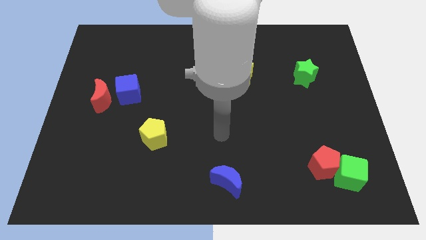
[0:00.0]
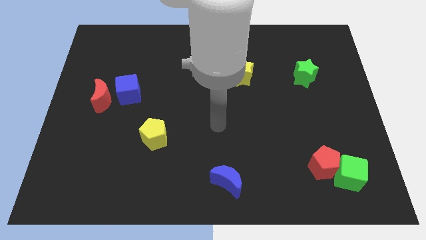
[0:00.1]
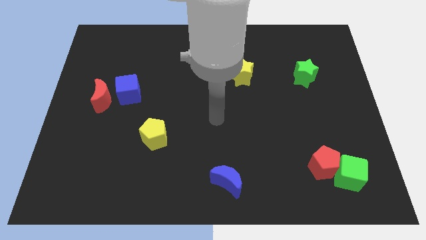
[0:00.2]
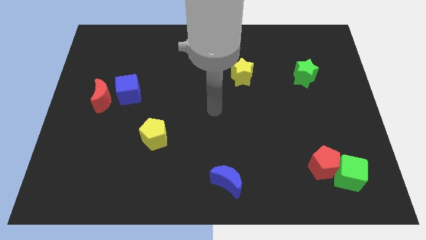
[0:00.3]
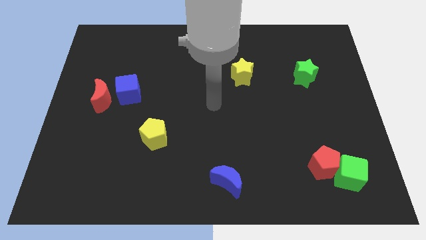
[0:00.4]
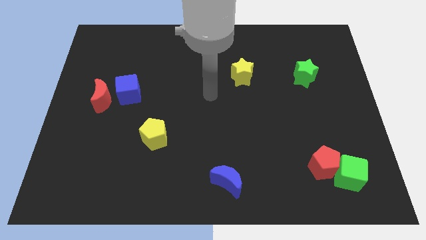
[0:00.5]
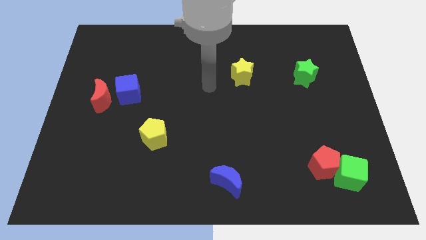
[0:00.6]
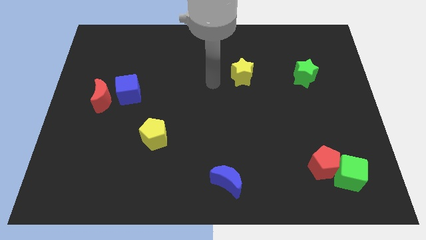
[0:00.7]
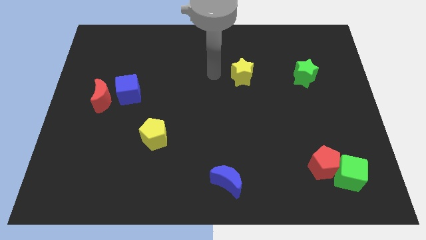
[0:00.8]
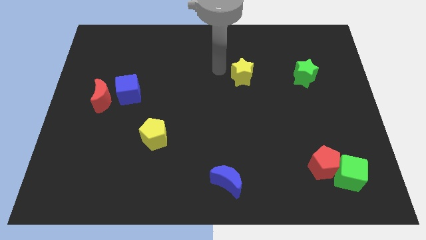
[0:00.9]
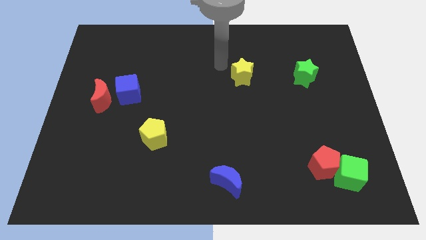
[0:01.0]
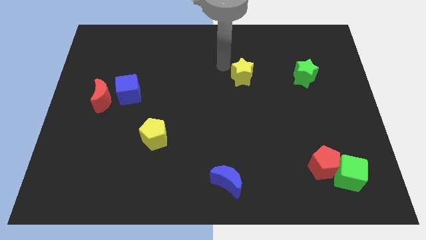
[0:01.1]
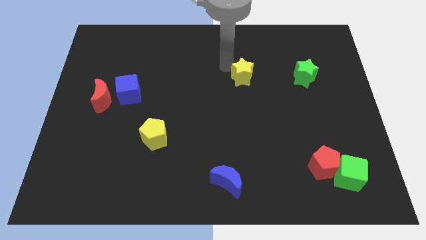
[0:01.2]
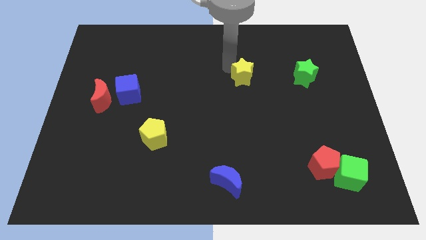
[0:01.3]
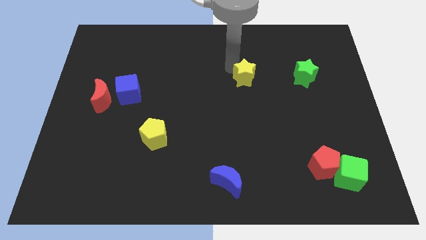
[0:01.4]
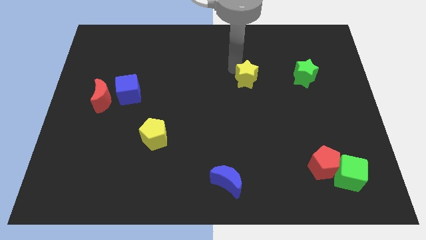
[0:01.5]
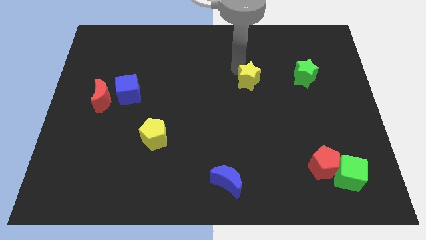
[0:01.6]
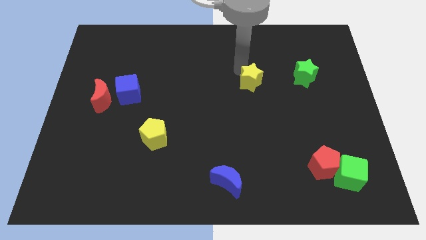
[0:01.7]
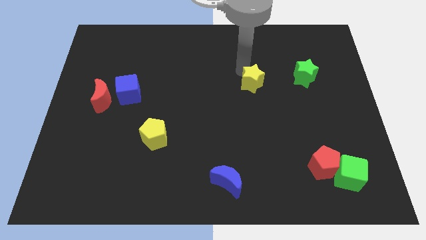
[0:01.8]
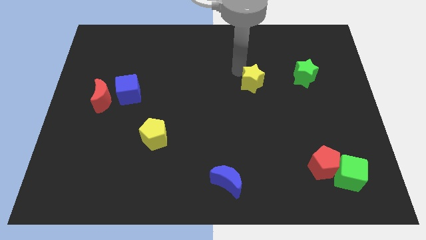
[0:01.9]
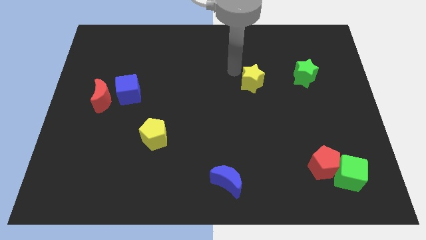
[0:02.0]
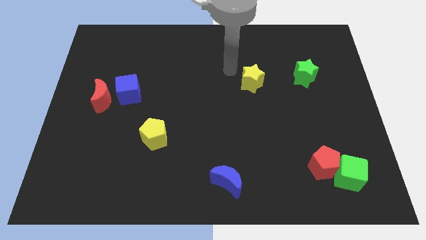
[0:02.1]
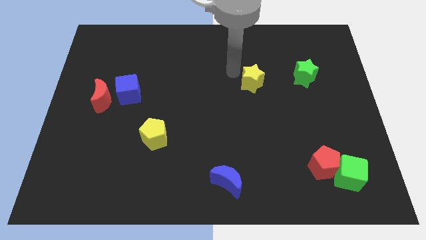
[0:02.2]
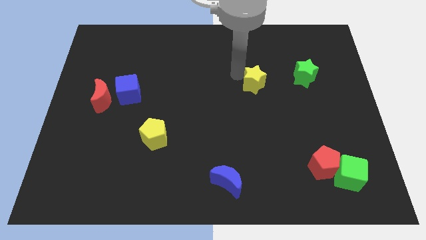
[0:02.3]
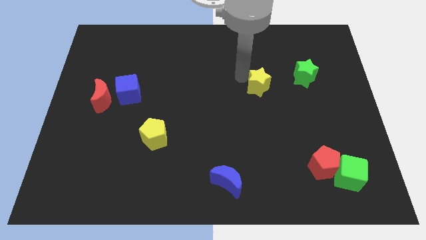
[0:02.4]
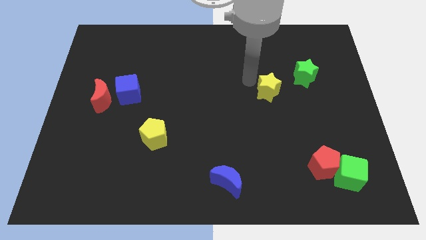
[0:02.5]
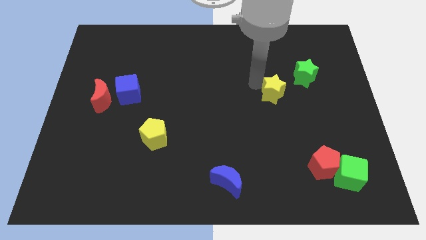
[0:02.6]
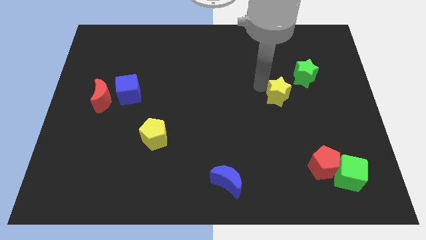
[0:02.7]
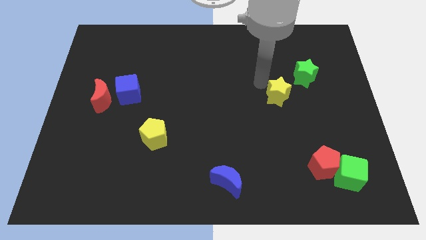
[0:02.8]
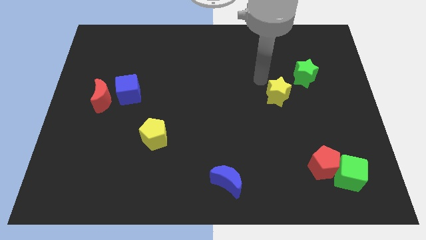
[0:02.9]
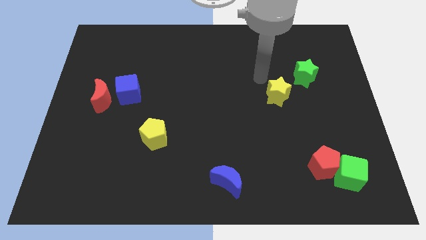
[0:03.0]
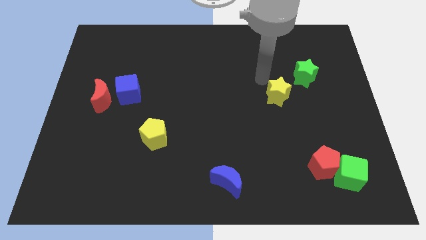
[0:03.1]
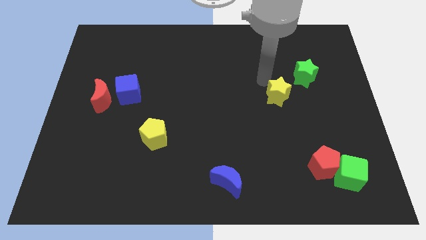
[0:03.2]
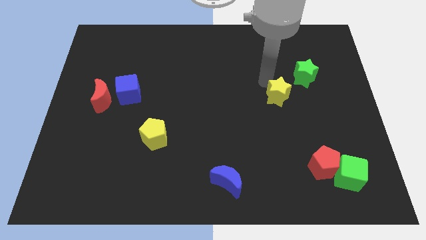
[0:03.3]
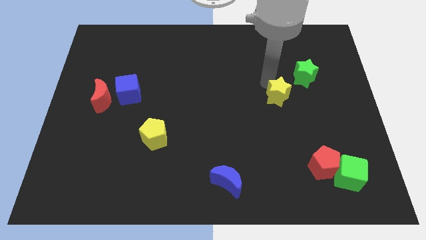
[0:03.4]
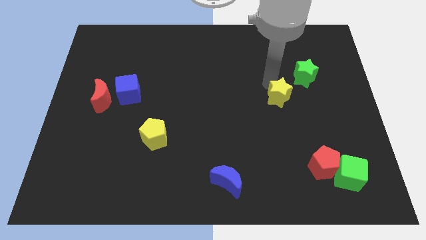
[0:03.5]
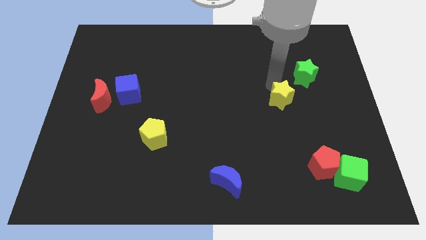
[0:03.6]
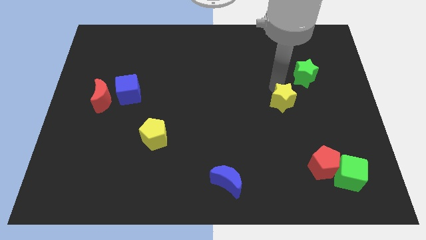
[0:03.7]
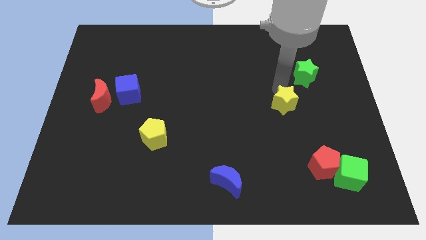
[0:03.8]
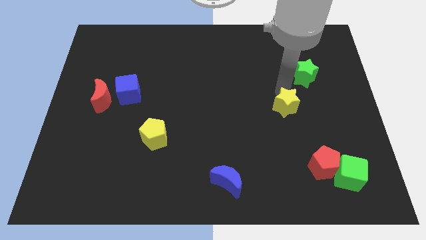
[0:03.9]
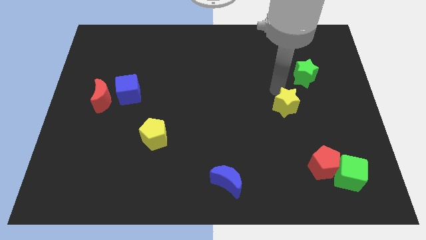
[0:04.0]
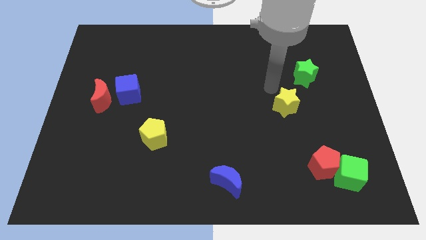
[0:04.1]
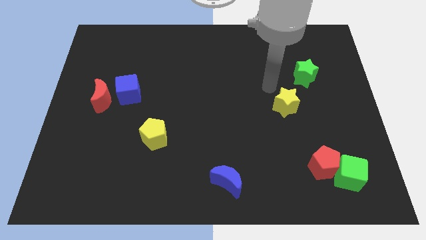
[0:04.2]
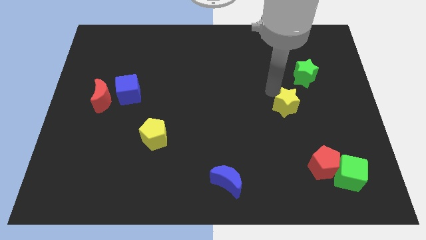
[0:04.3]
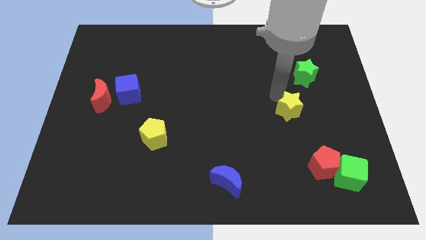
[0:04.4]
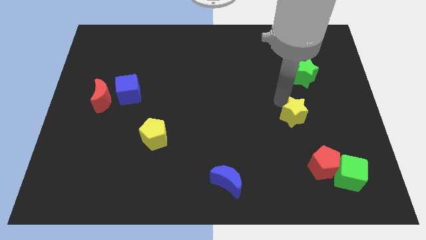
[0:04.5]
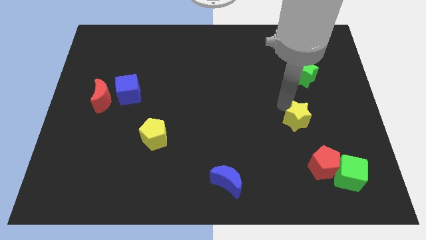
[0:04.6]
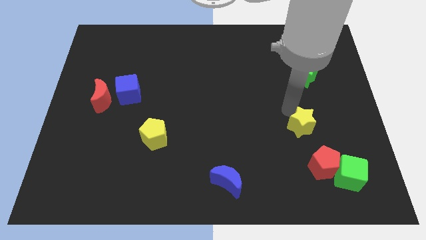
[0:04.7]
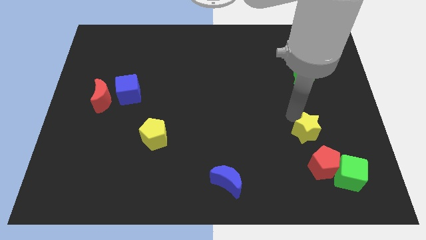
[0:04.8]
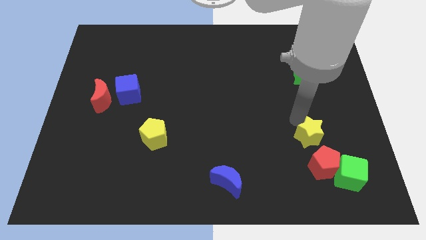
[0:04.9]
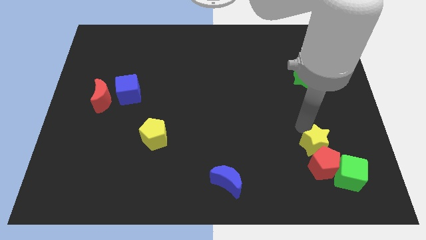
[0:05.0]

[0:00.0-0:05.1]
move the yellow star close to the red pentagon

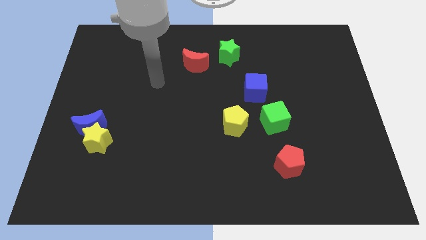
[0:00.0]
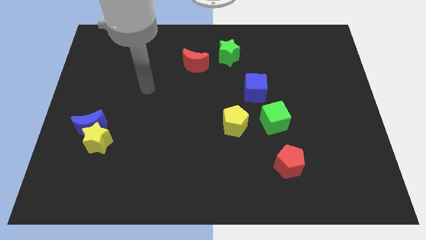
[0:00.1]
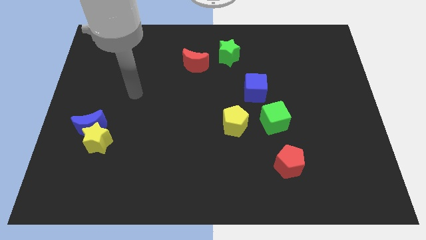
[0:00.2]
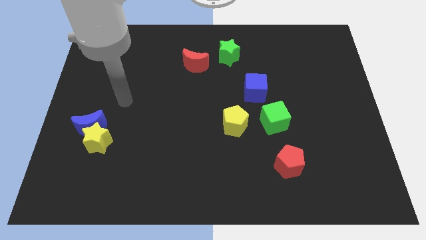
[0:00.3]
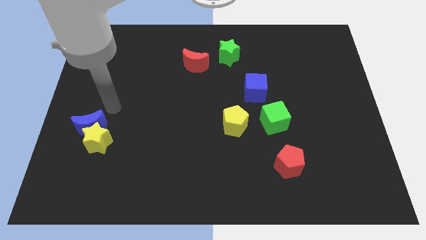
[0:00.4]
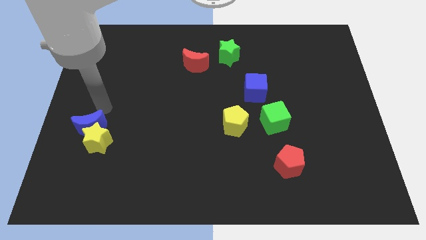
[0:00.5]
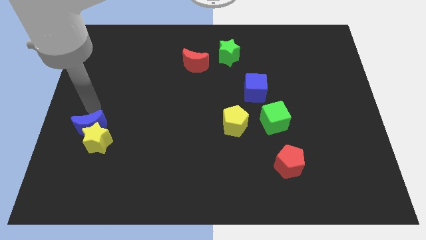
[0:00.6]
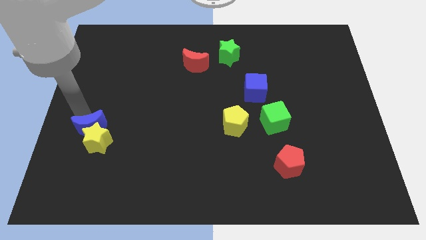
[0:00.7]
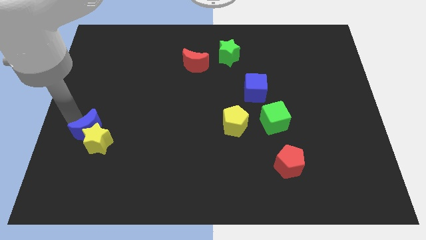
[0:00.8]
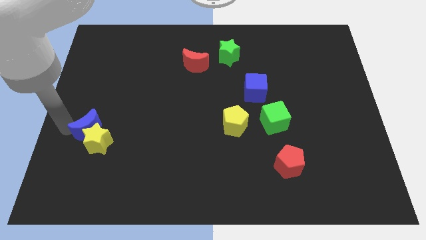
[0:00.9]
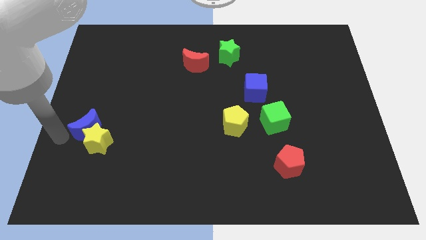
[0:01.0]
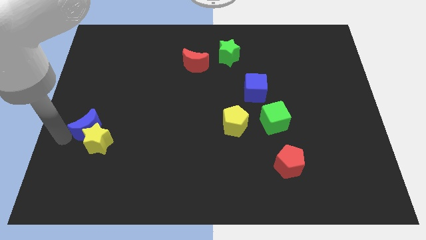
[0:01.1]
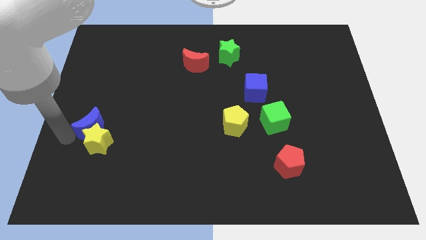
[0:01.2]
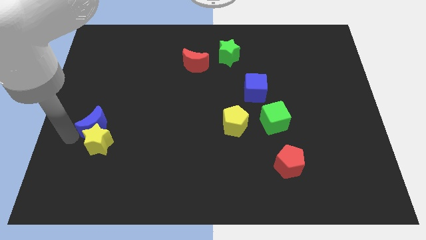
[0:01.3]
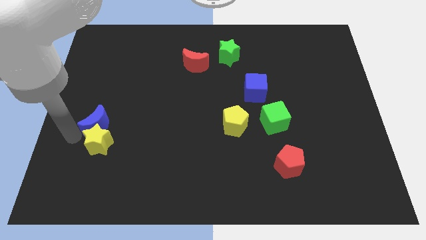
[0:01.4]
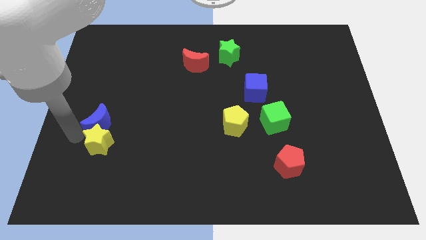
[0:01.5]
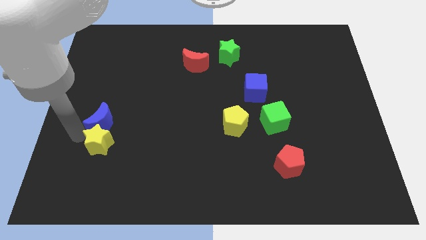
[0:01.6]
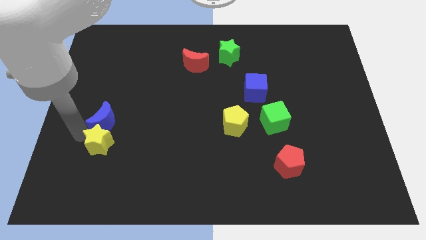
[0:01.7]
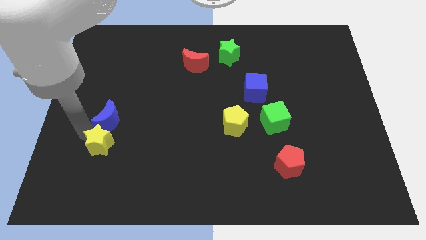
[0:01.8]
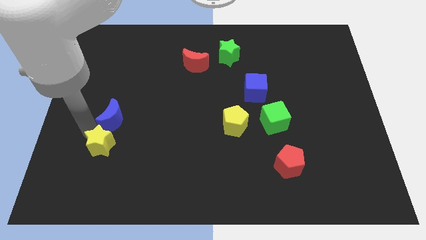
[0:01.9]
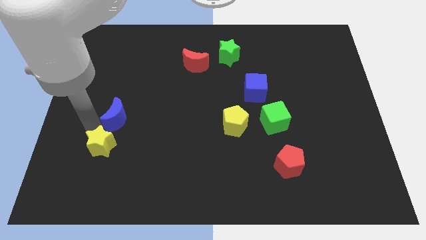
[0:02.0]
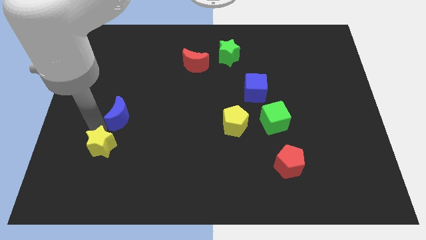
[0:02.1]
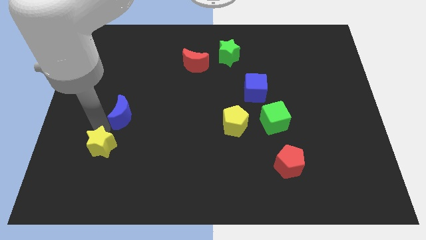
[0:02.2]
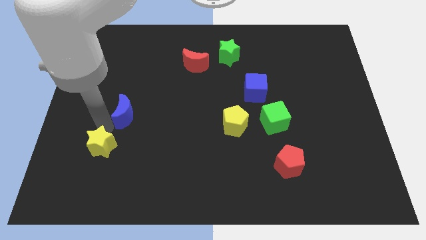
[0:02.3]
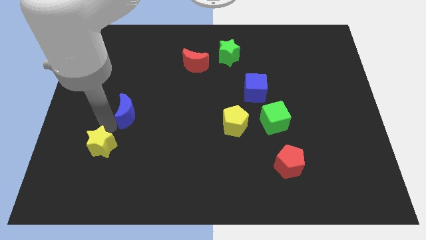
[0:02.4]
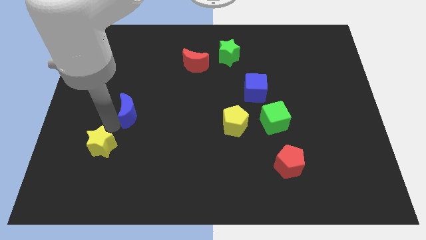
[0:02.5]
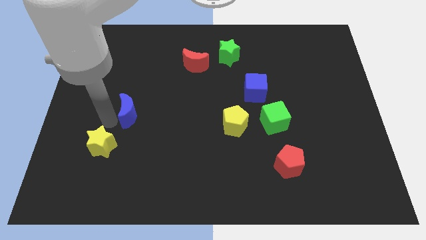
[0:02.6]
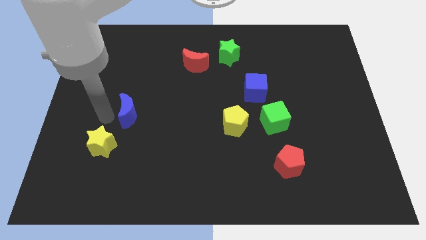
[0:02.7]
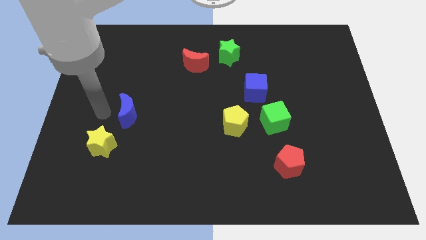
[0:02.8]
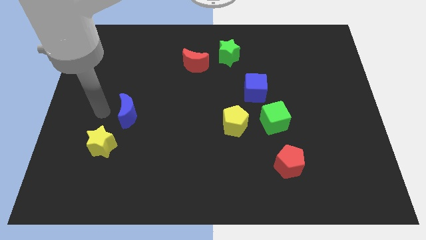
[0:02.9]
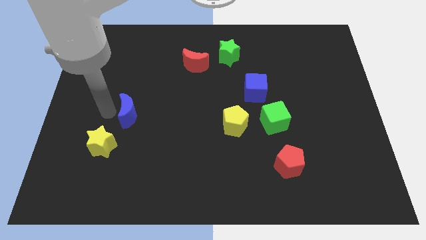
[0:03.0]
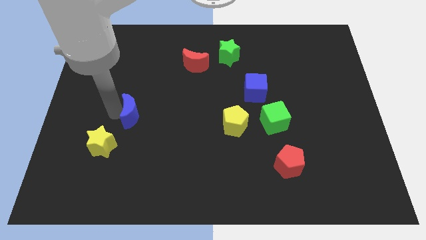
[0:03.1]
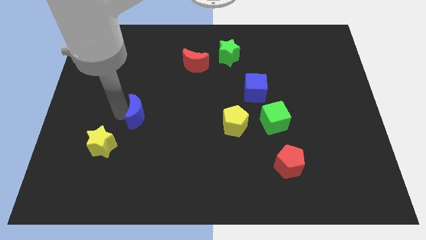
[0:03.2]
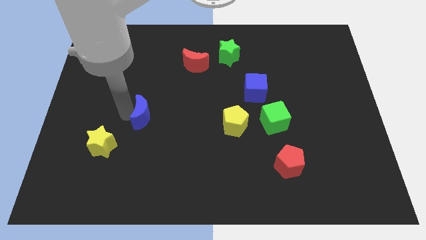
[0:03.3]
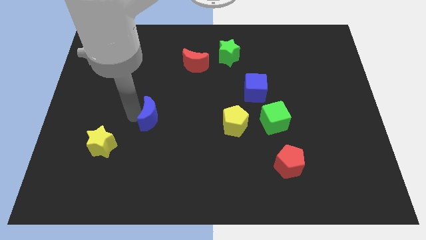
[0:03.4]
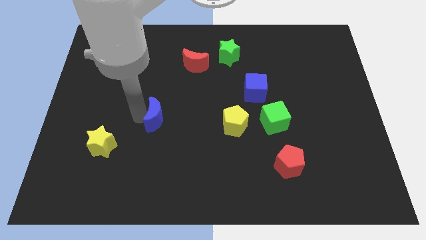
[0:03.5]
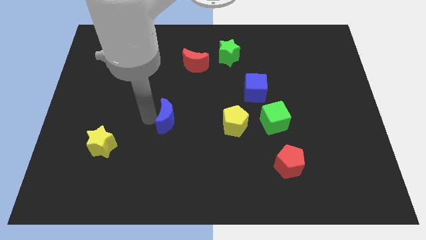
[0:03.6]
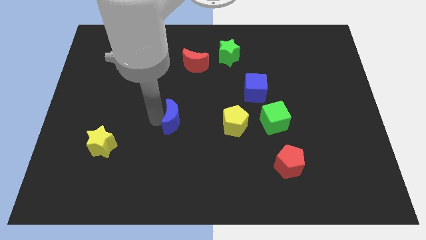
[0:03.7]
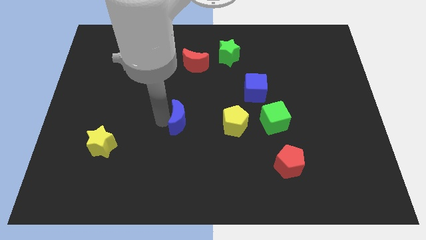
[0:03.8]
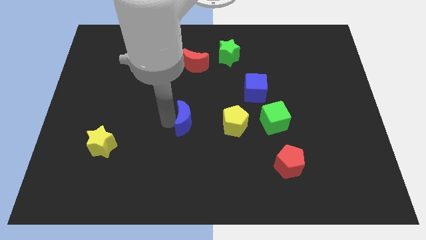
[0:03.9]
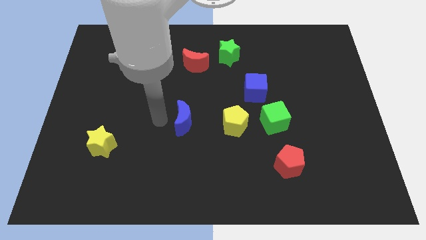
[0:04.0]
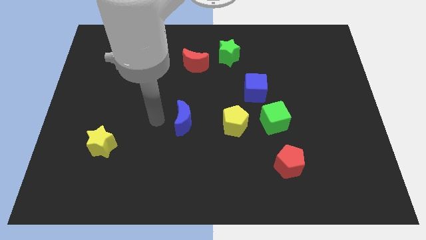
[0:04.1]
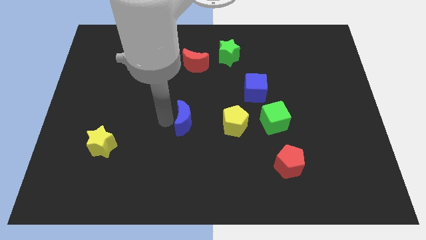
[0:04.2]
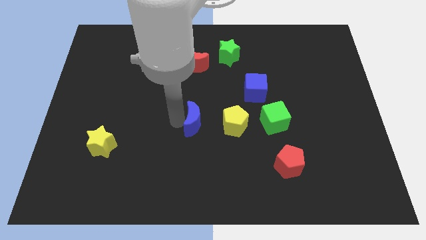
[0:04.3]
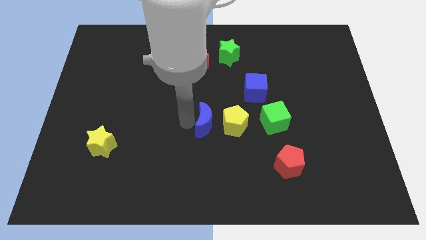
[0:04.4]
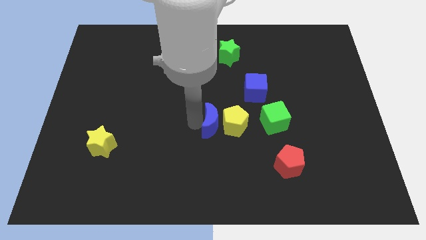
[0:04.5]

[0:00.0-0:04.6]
put the blue moon close to the yellow pentagon
